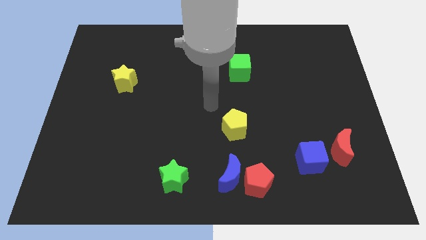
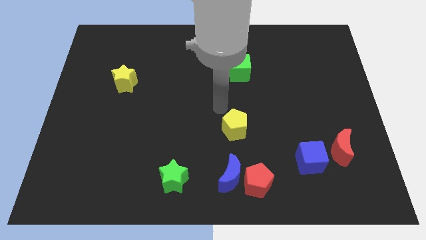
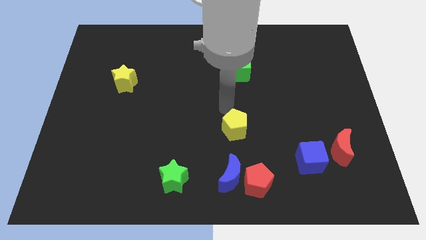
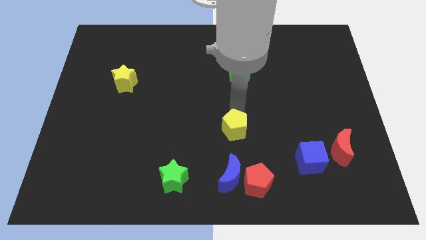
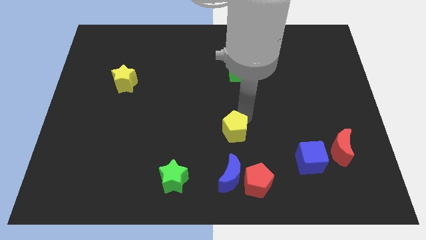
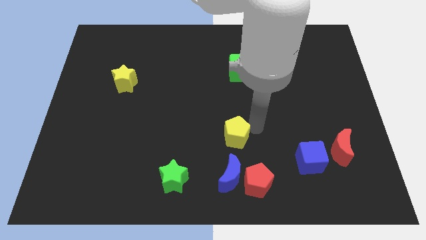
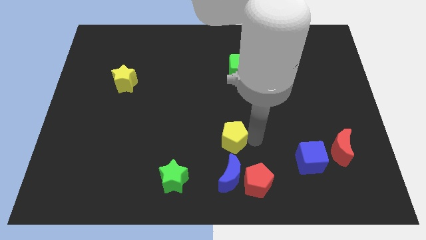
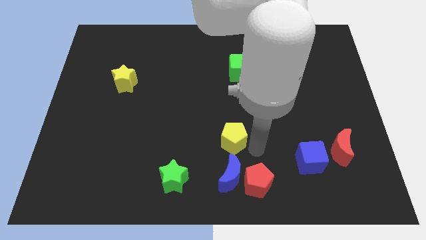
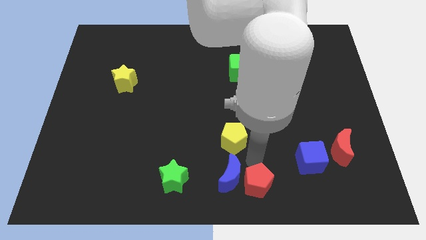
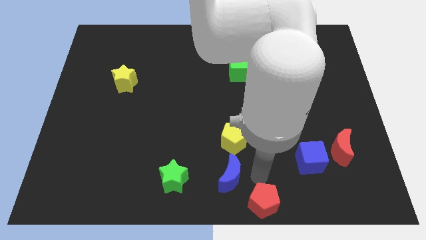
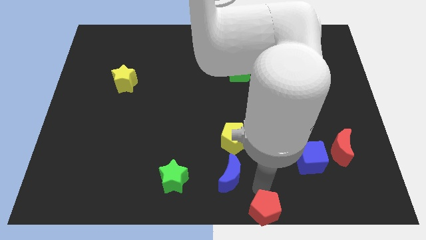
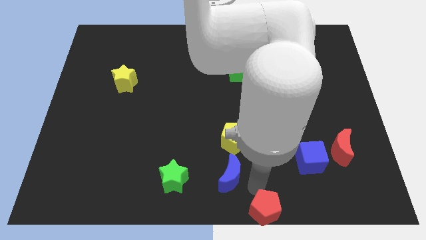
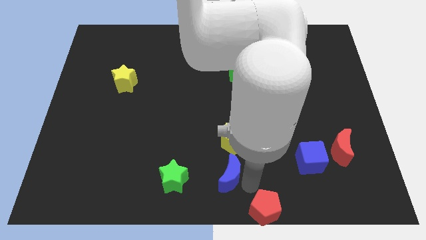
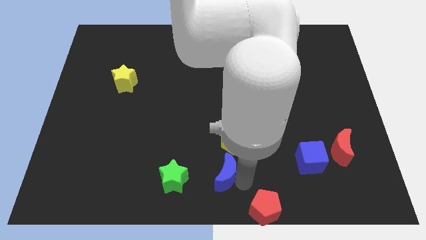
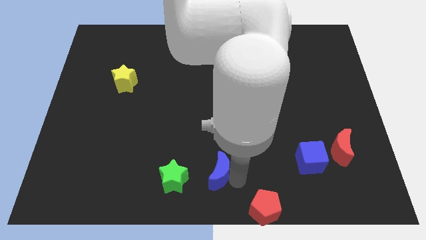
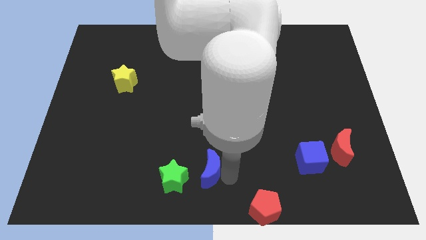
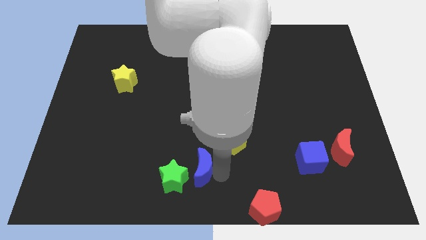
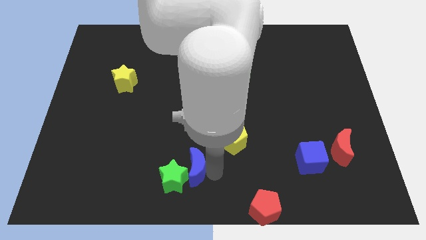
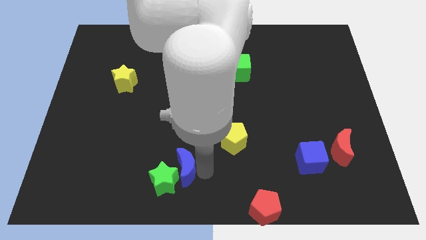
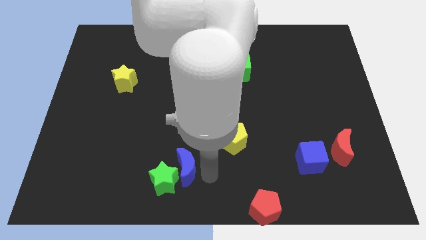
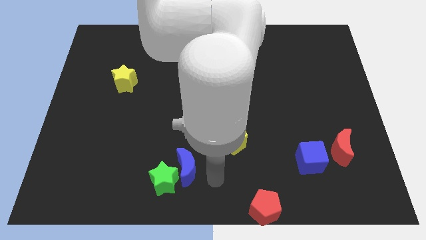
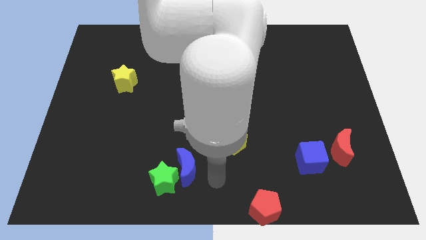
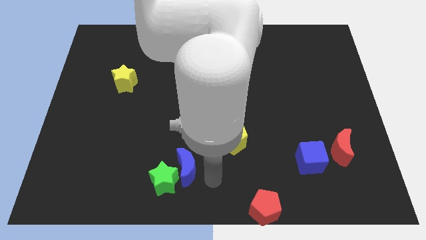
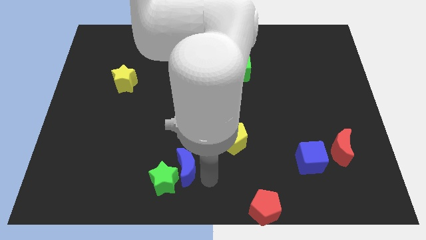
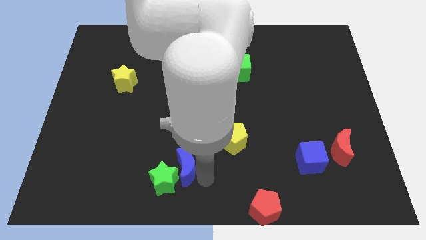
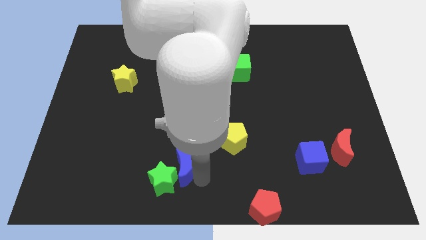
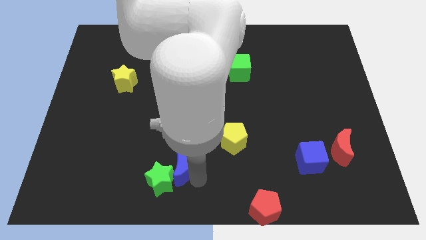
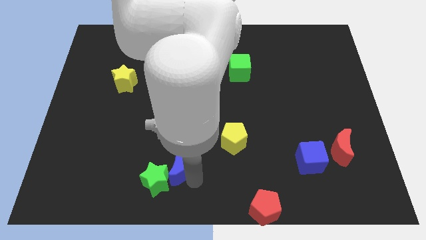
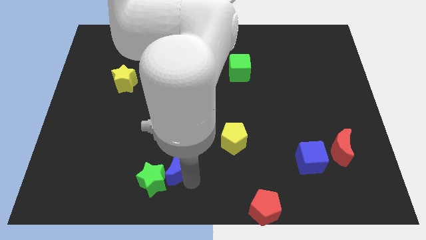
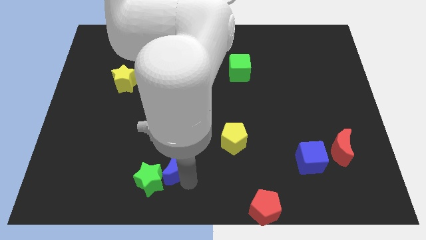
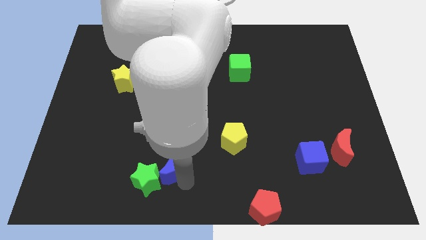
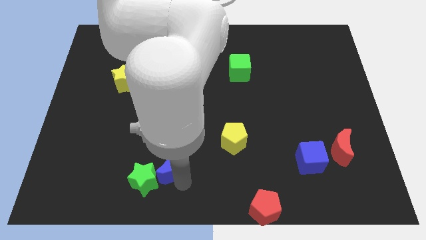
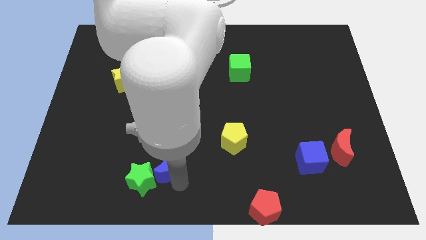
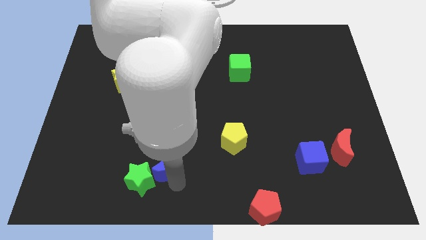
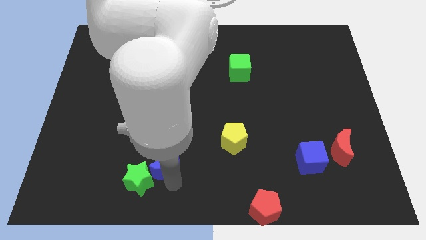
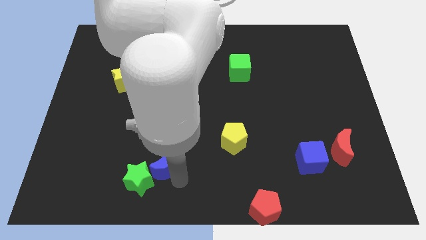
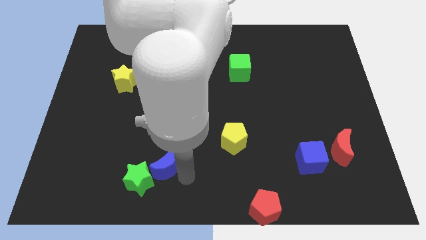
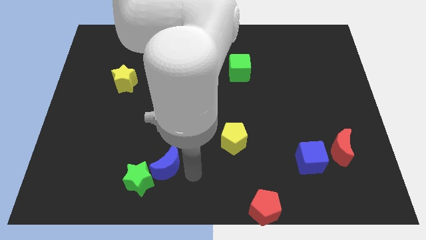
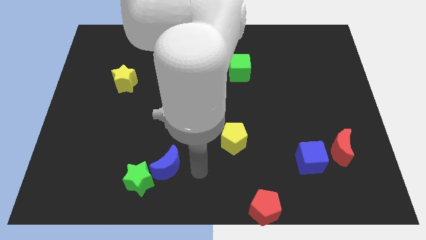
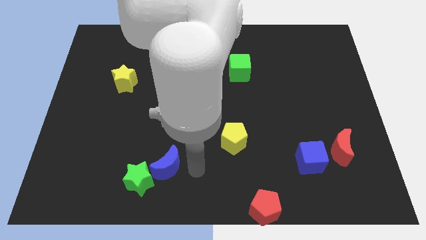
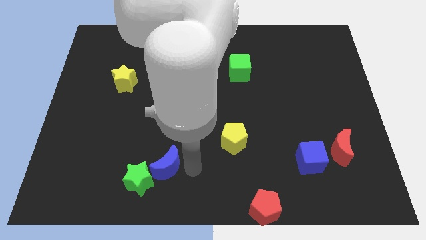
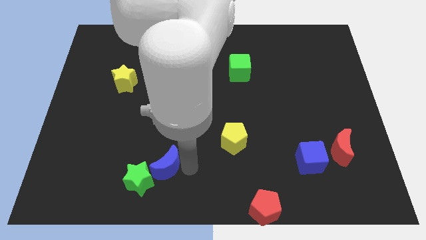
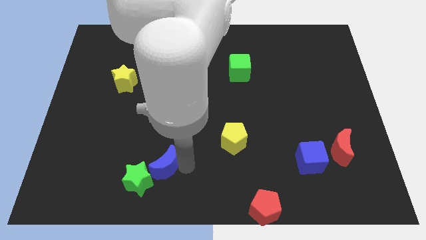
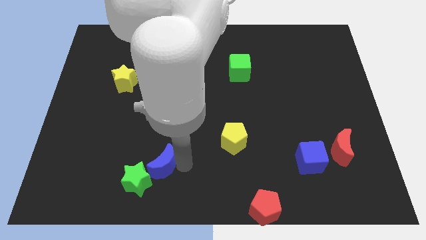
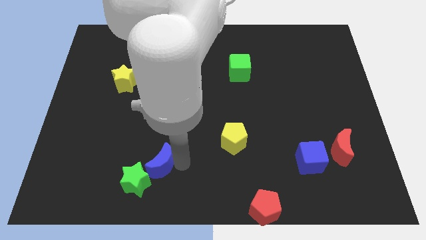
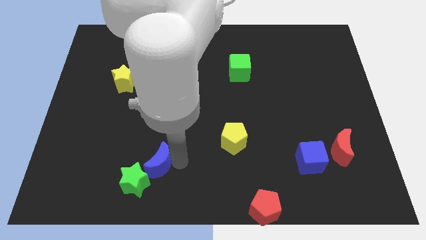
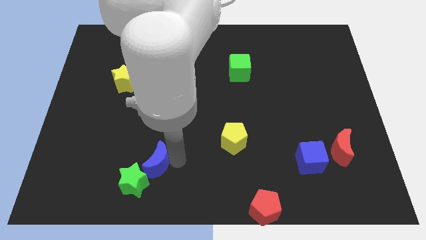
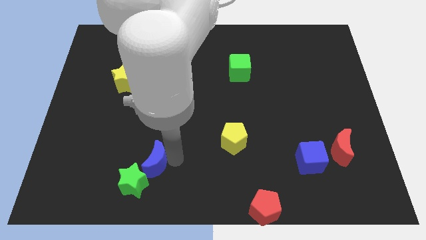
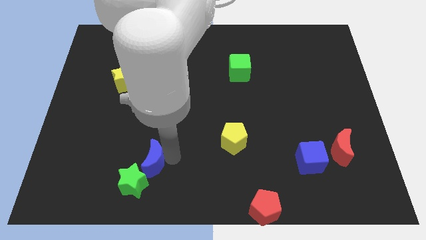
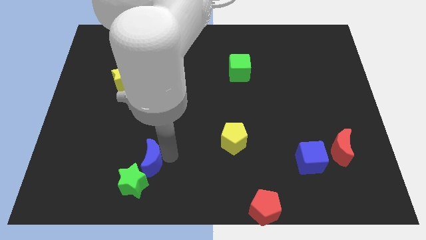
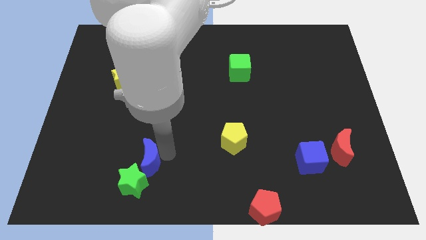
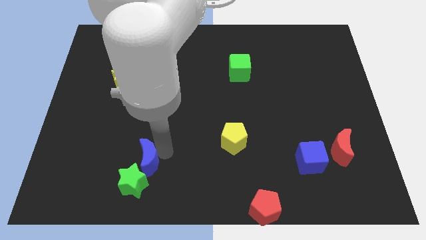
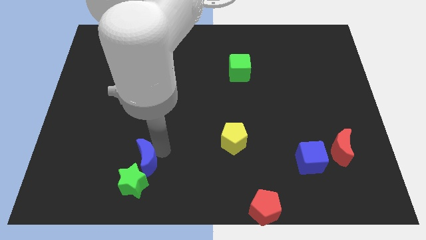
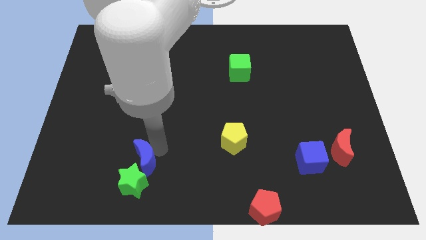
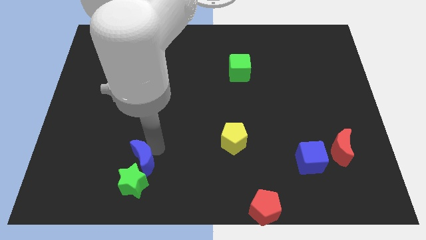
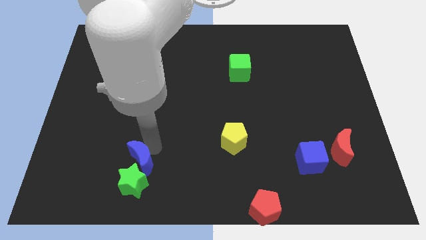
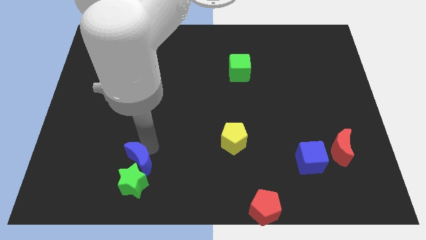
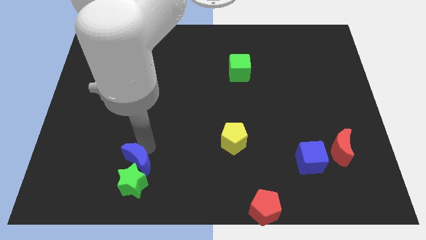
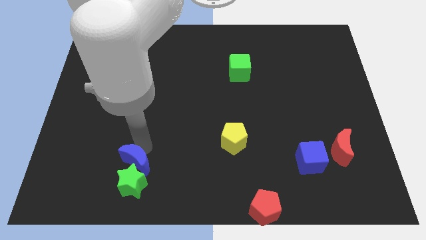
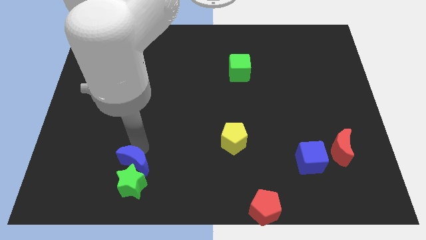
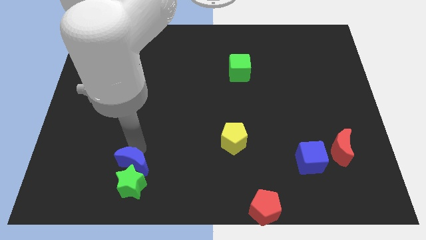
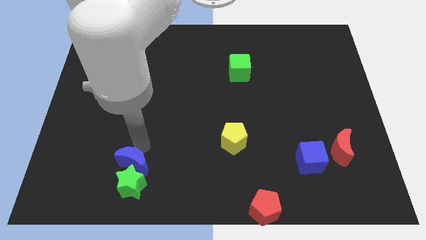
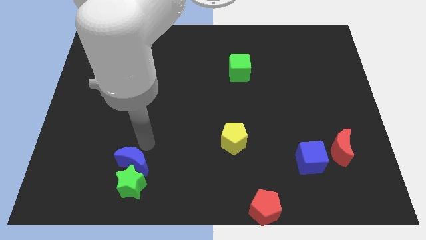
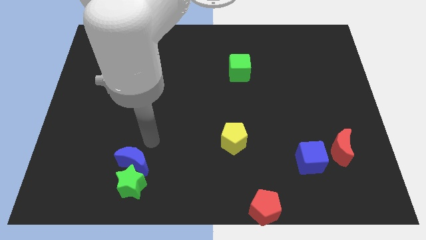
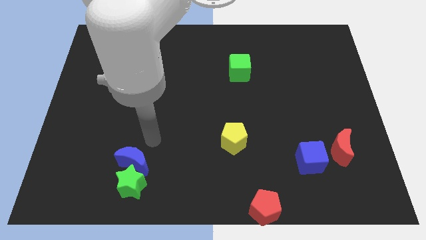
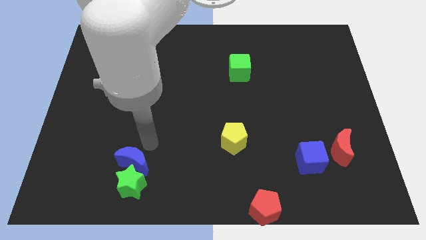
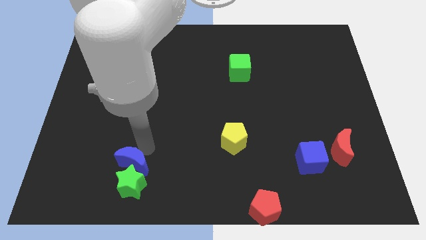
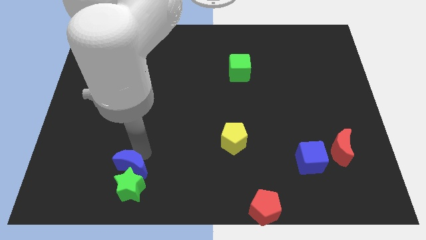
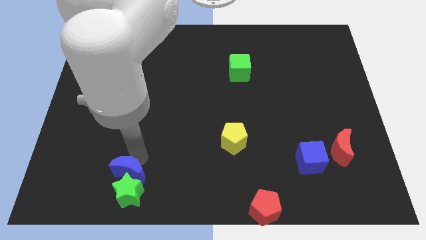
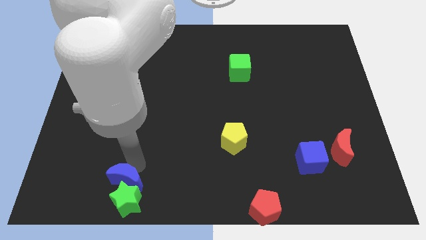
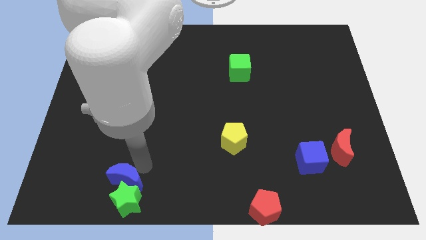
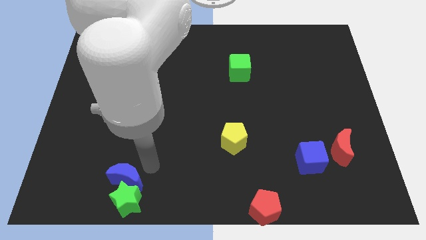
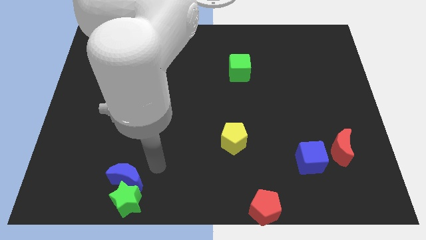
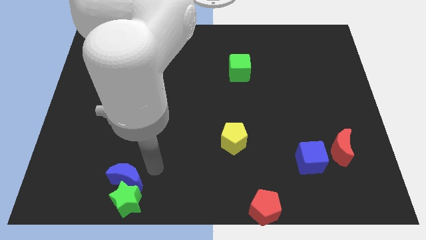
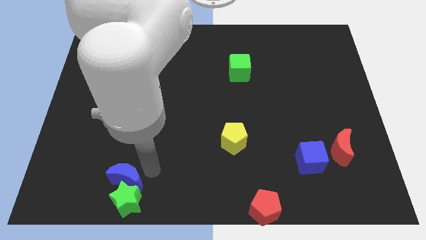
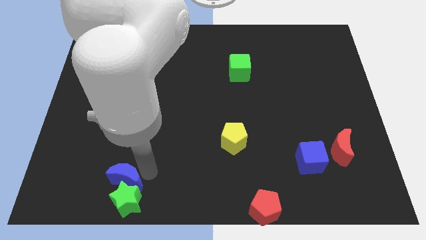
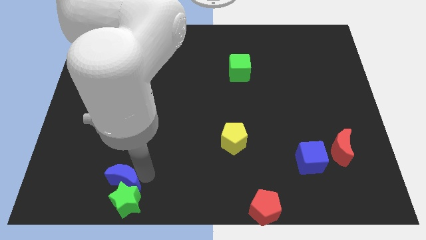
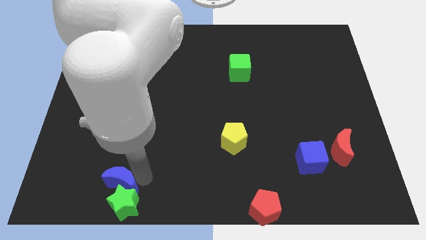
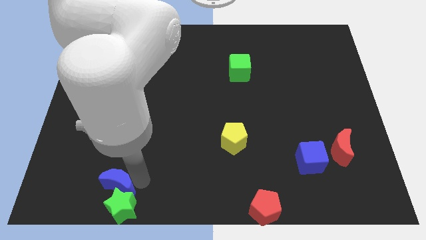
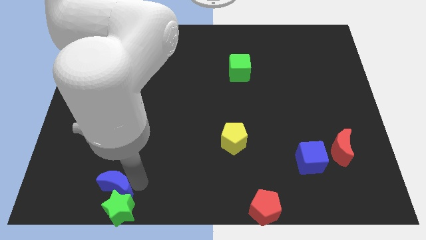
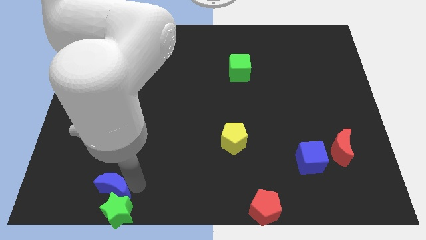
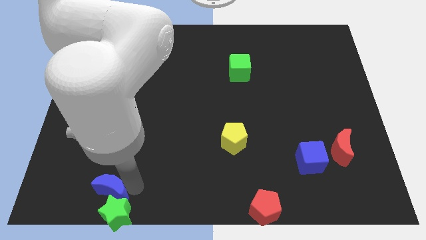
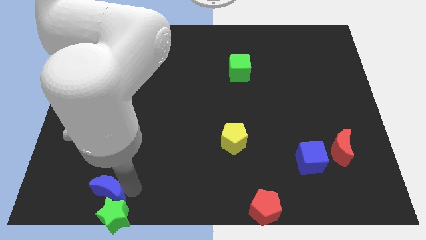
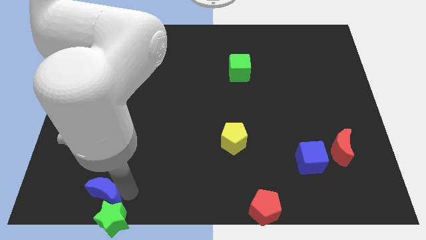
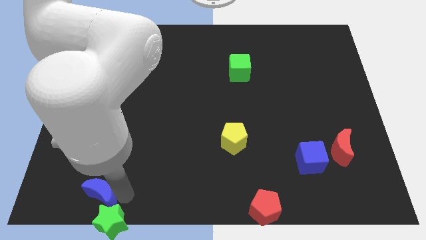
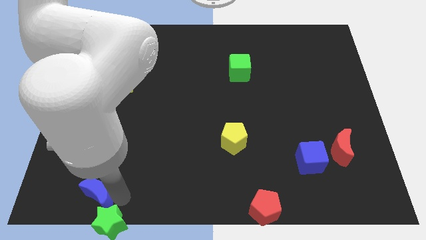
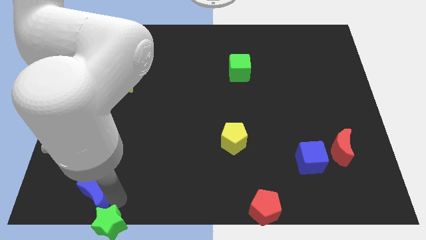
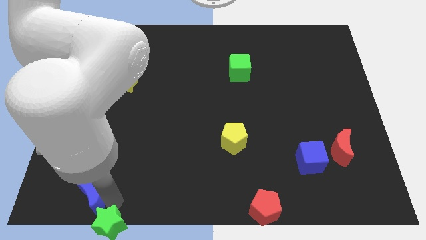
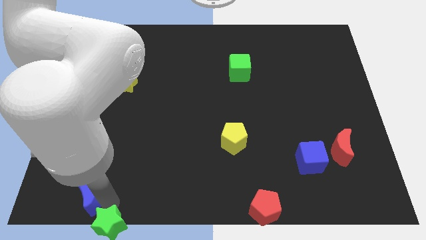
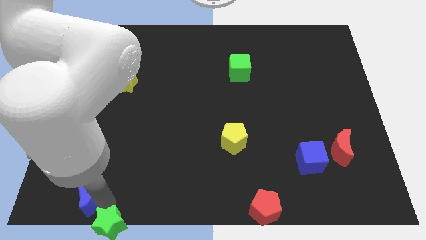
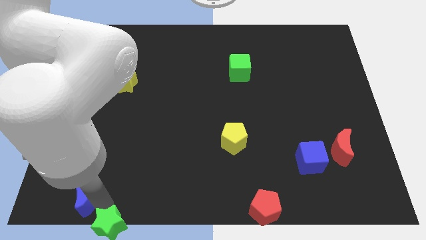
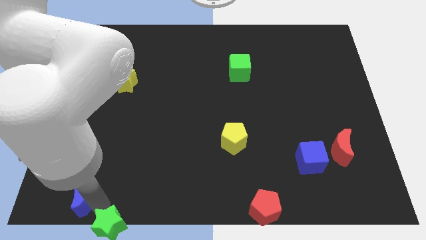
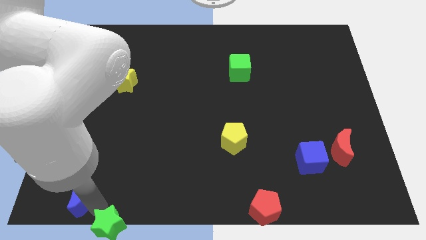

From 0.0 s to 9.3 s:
slide the blue moon to the lower left corner
